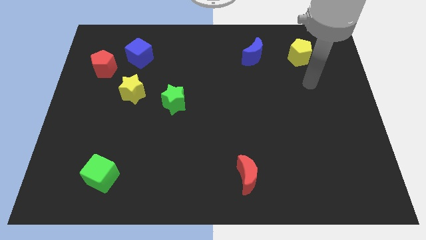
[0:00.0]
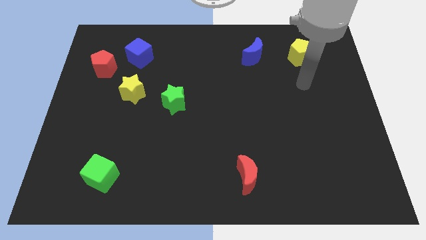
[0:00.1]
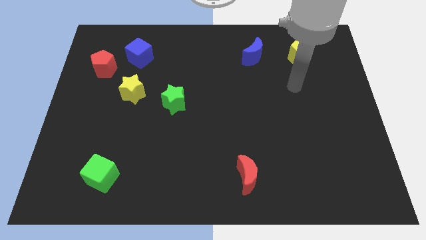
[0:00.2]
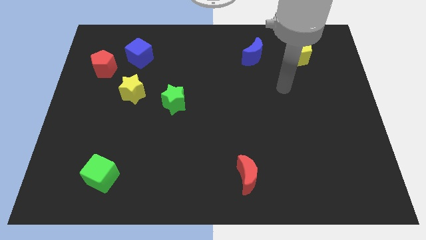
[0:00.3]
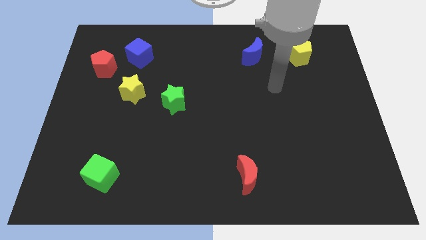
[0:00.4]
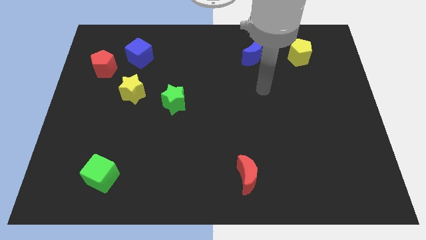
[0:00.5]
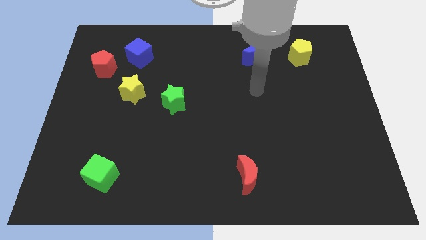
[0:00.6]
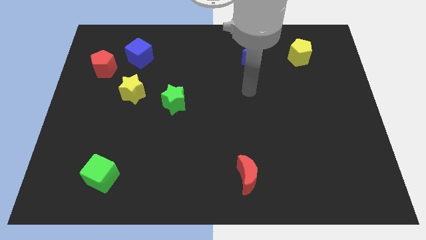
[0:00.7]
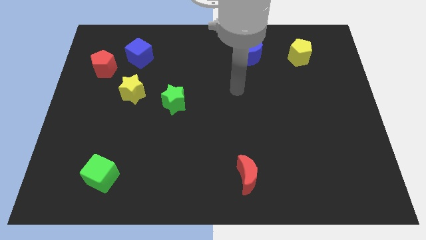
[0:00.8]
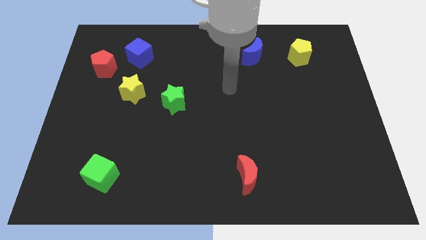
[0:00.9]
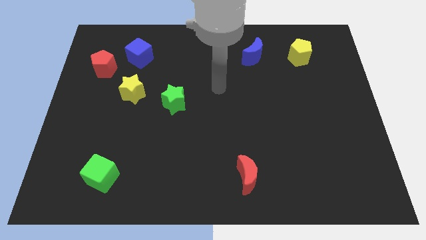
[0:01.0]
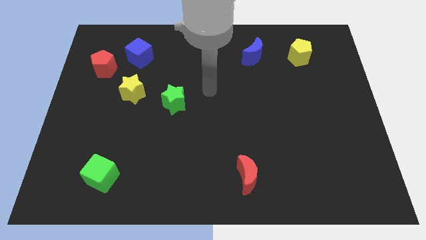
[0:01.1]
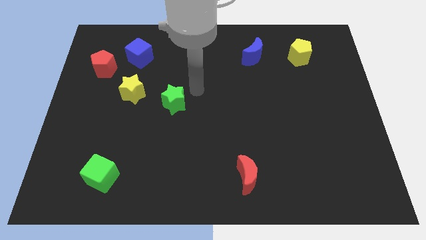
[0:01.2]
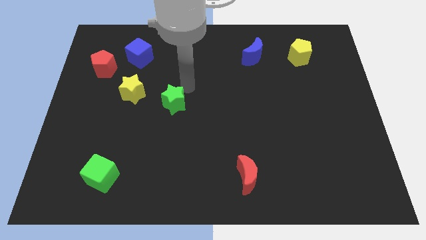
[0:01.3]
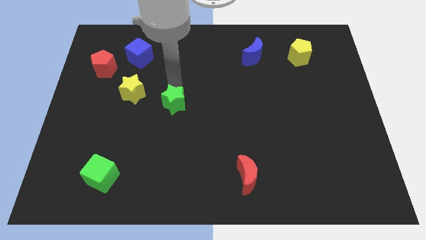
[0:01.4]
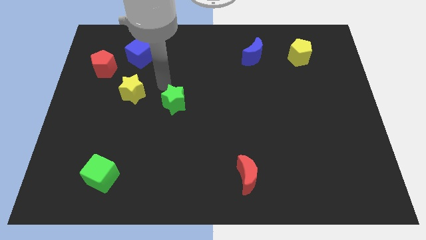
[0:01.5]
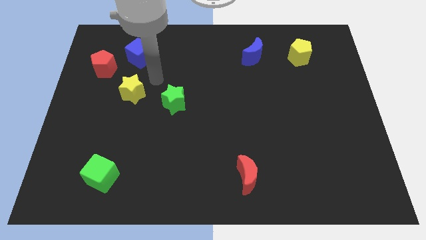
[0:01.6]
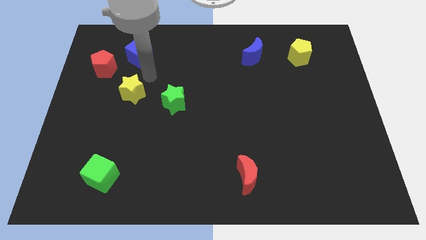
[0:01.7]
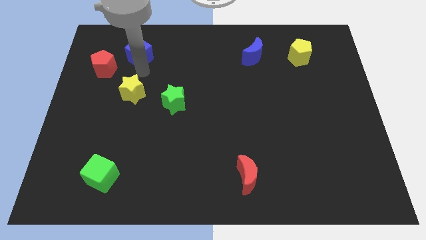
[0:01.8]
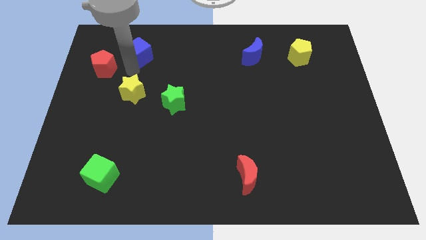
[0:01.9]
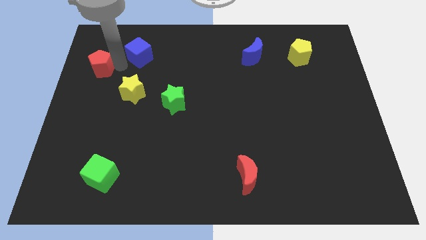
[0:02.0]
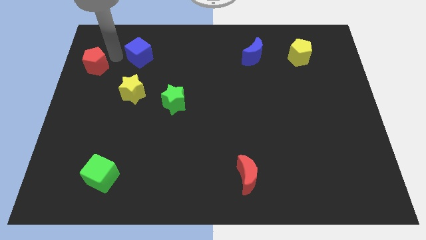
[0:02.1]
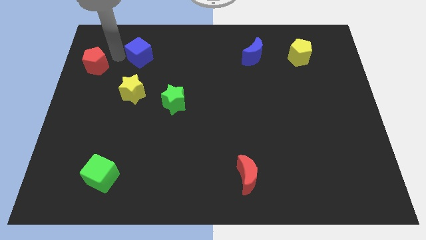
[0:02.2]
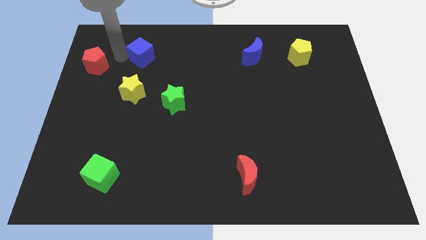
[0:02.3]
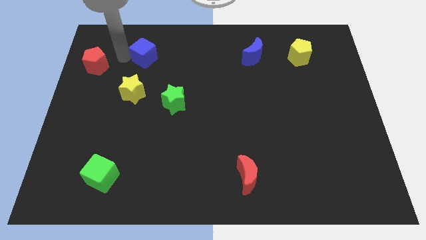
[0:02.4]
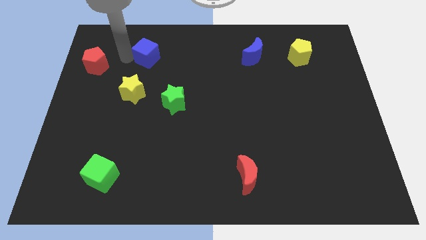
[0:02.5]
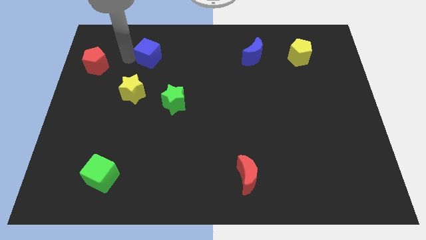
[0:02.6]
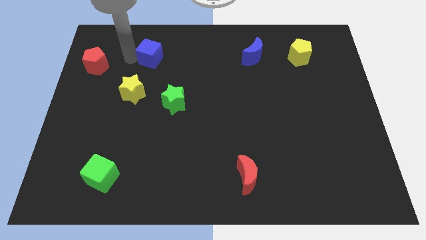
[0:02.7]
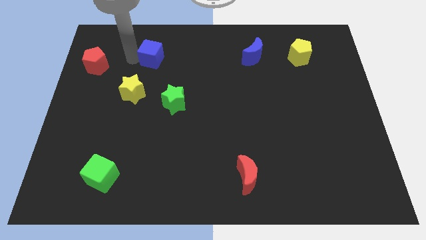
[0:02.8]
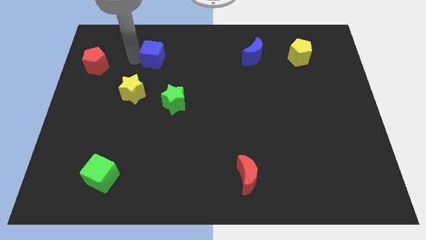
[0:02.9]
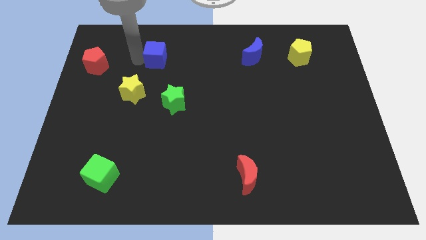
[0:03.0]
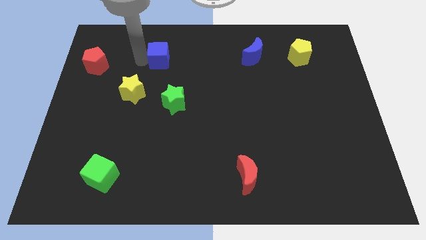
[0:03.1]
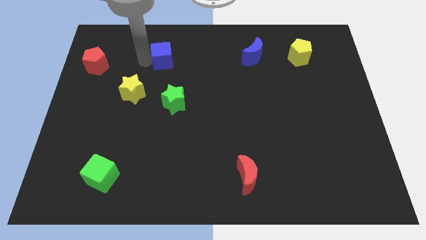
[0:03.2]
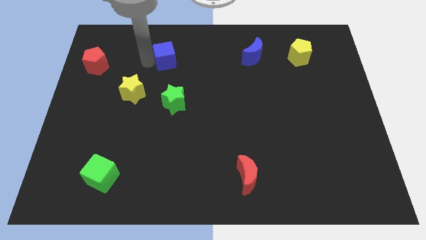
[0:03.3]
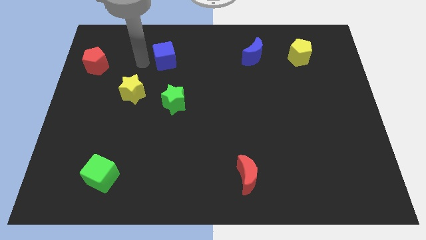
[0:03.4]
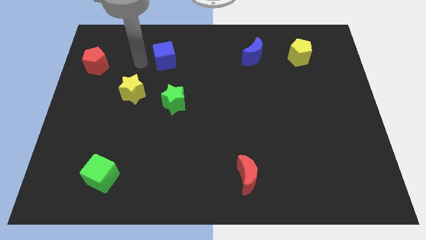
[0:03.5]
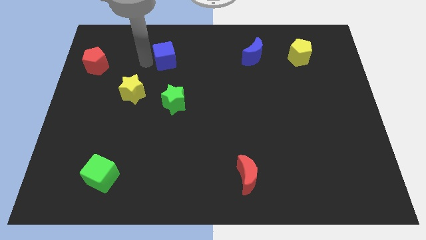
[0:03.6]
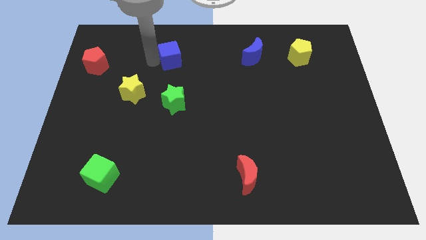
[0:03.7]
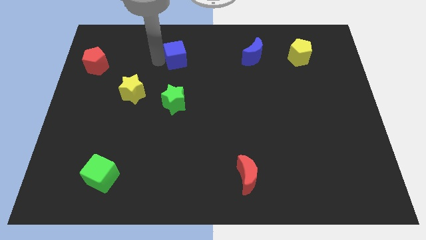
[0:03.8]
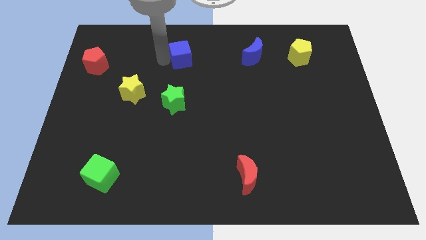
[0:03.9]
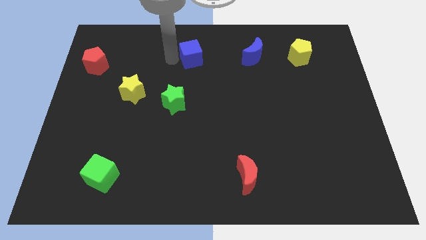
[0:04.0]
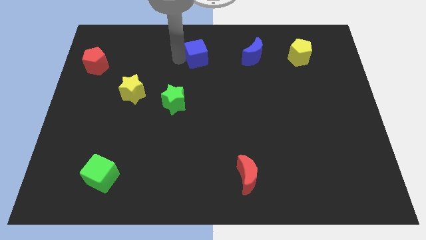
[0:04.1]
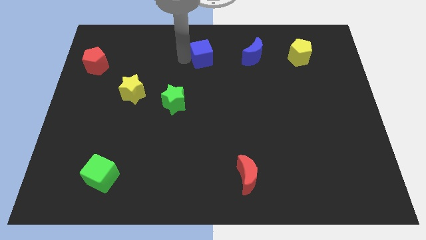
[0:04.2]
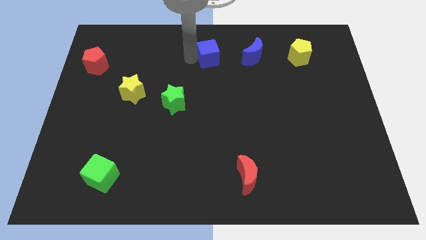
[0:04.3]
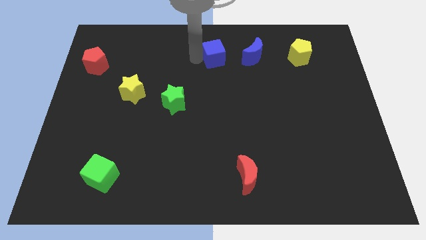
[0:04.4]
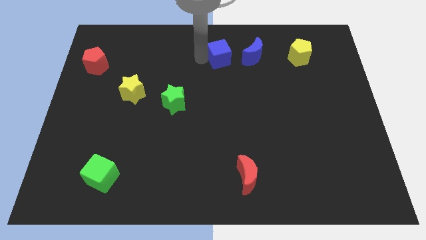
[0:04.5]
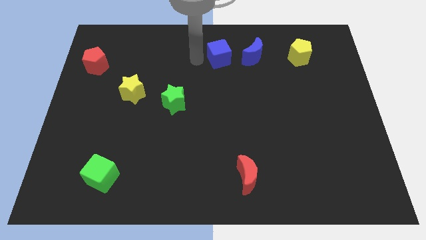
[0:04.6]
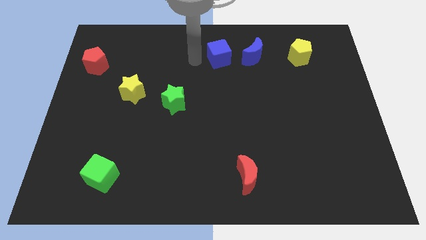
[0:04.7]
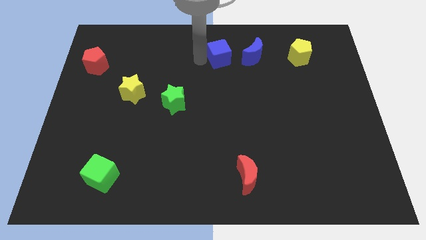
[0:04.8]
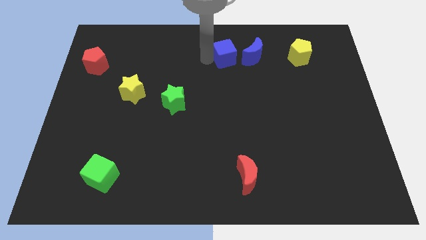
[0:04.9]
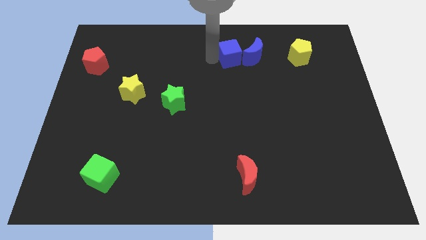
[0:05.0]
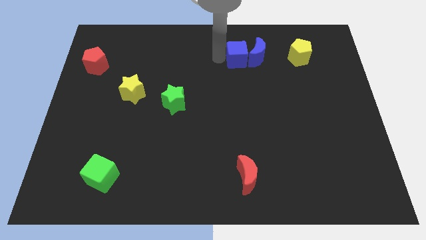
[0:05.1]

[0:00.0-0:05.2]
put the blue cube next to the blue moon

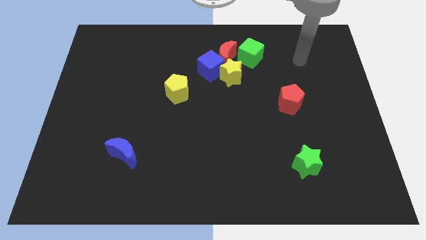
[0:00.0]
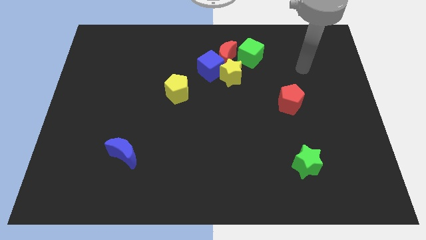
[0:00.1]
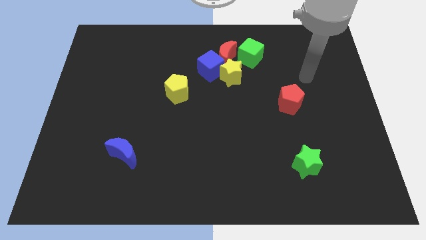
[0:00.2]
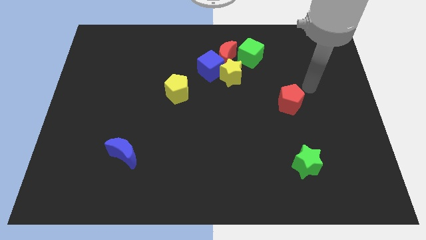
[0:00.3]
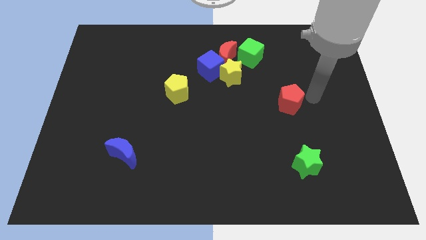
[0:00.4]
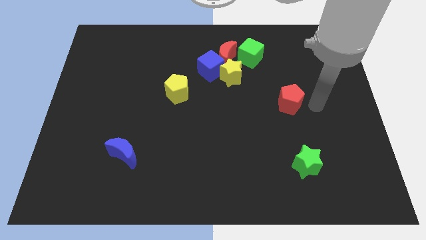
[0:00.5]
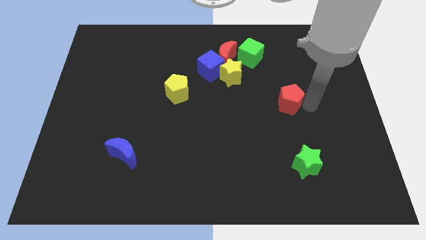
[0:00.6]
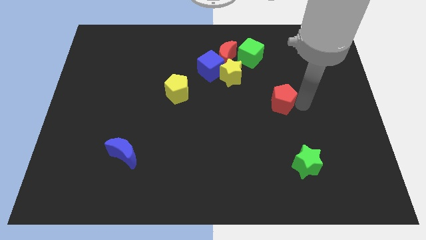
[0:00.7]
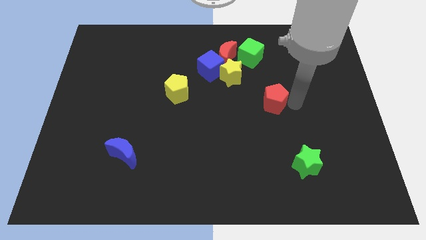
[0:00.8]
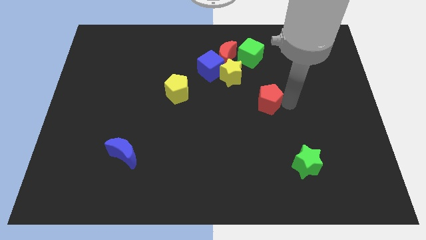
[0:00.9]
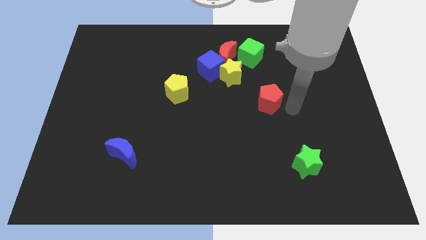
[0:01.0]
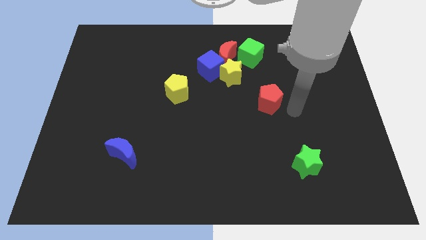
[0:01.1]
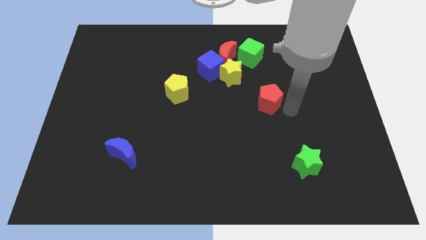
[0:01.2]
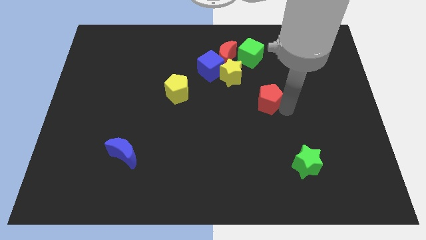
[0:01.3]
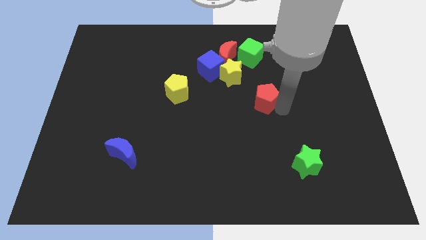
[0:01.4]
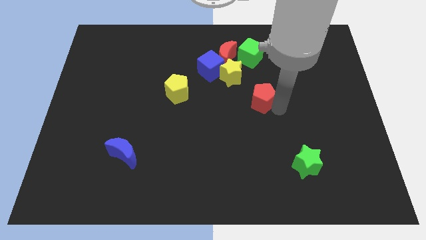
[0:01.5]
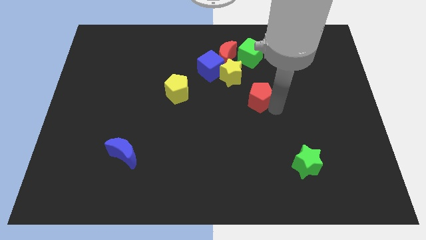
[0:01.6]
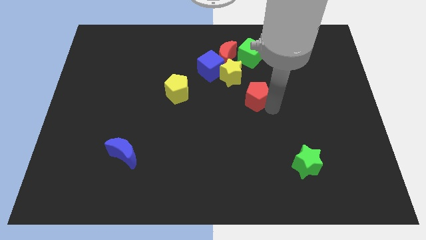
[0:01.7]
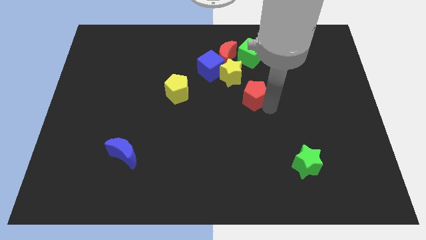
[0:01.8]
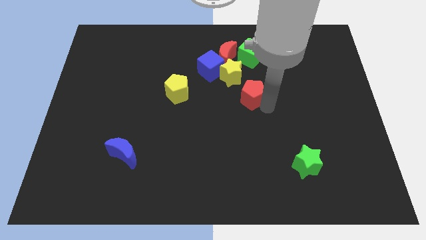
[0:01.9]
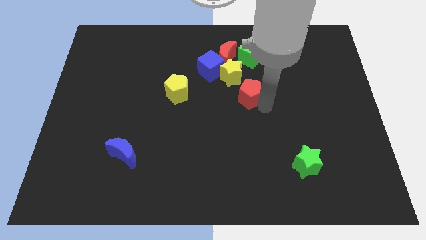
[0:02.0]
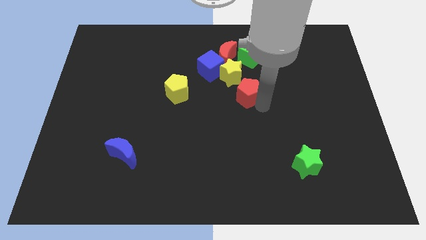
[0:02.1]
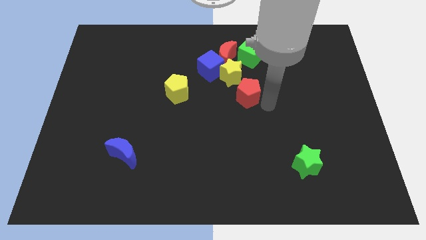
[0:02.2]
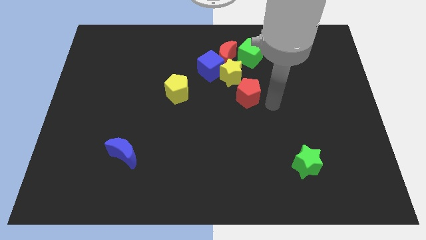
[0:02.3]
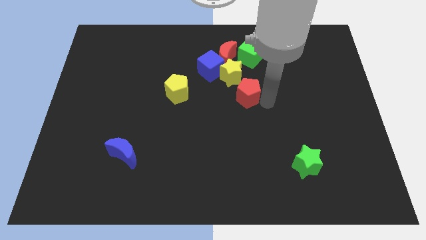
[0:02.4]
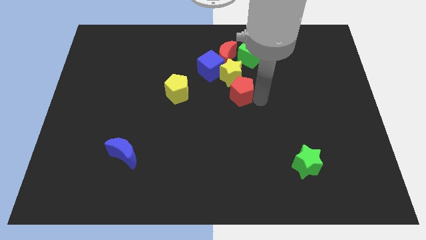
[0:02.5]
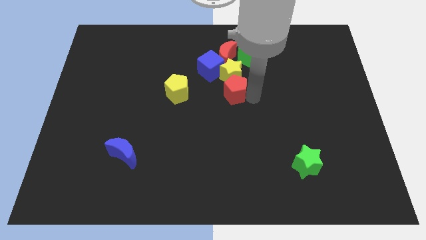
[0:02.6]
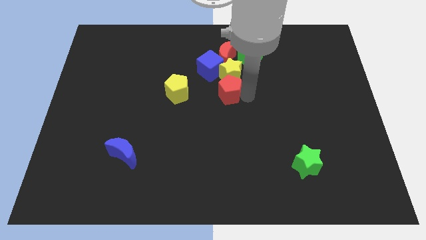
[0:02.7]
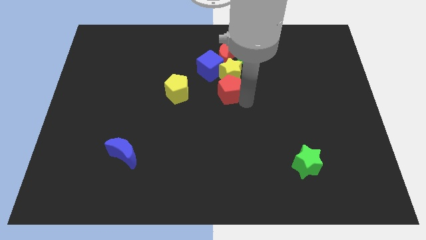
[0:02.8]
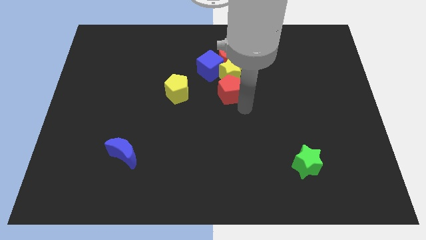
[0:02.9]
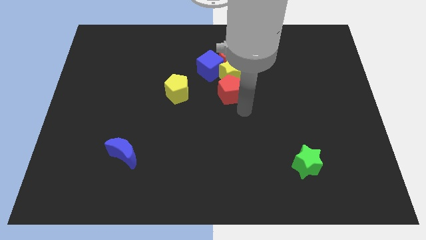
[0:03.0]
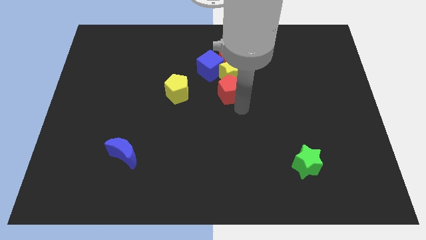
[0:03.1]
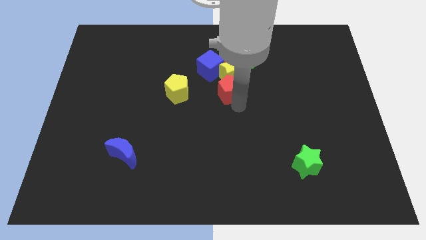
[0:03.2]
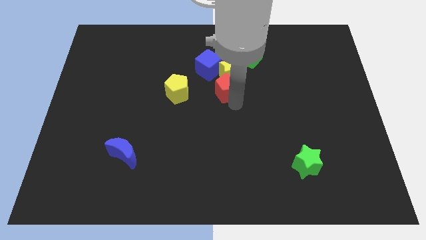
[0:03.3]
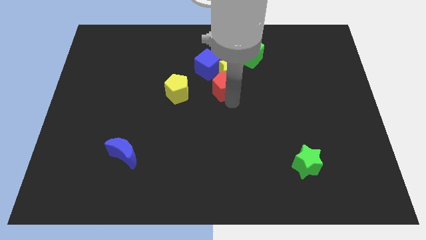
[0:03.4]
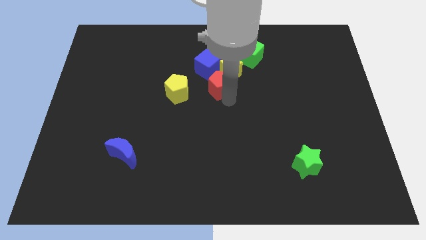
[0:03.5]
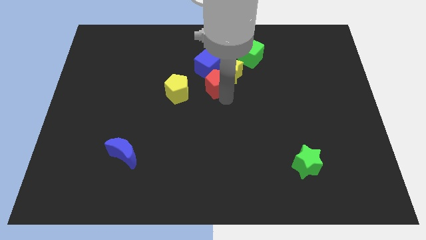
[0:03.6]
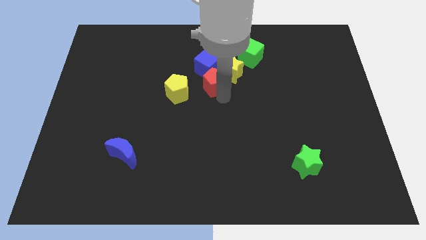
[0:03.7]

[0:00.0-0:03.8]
move the red pentagon to the blue cube
